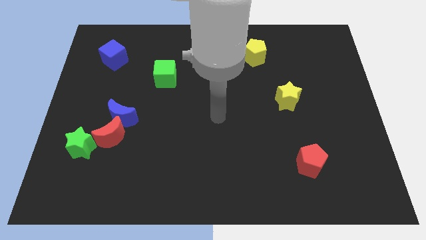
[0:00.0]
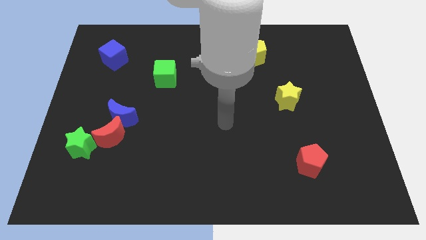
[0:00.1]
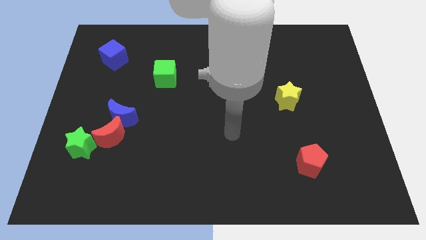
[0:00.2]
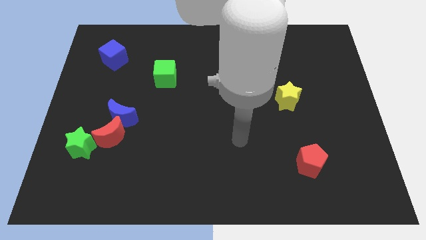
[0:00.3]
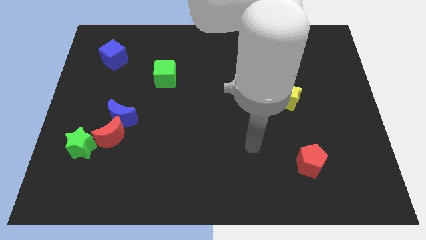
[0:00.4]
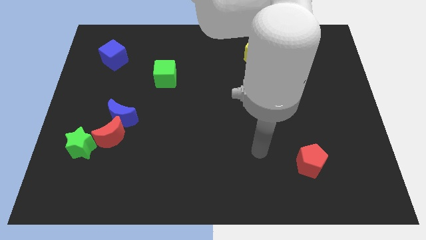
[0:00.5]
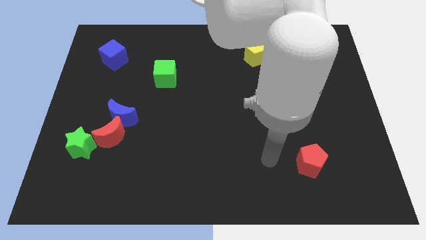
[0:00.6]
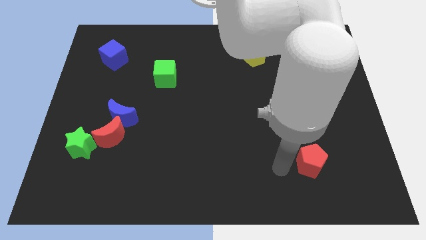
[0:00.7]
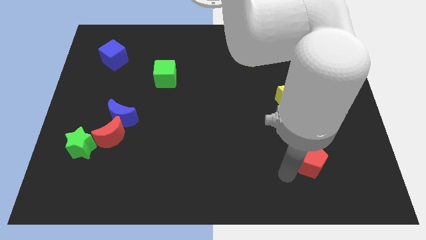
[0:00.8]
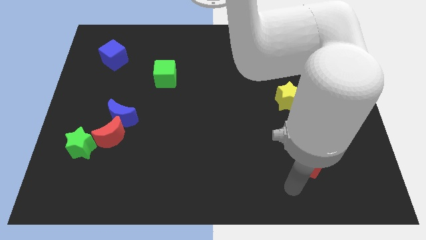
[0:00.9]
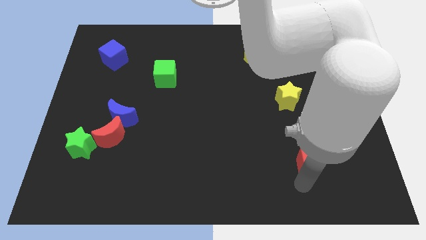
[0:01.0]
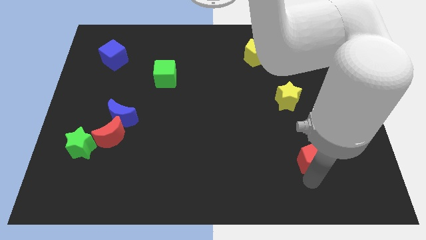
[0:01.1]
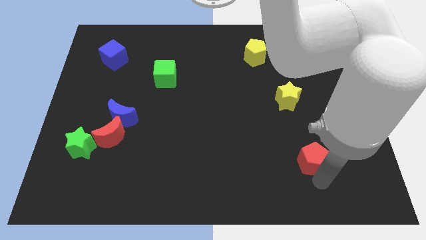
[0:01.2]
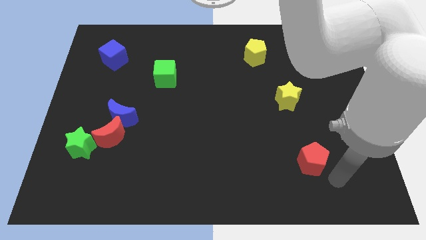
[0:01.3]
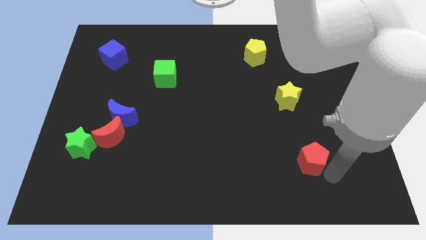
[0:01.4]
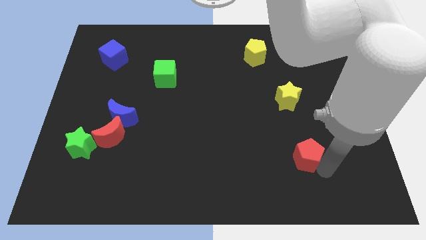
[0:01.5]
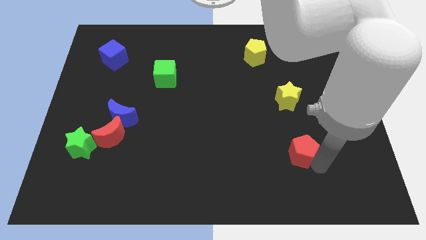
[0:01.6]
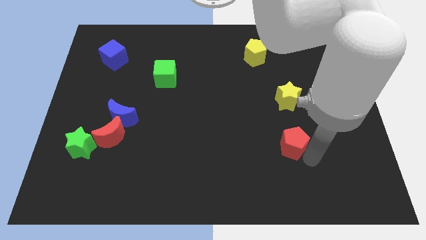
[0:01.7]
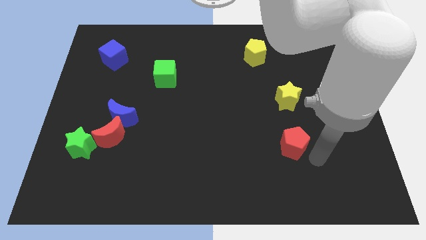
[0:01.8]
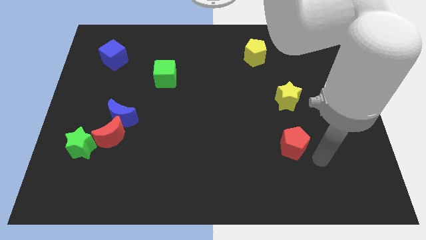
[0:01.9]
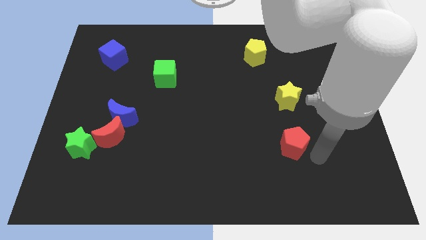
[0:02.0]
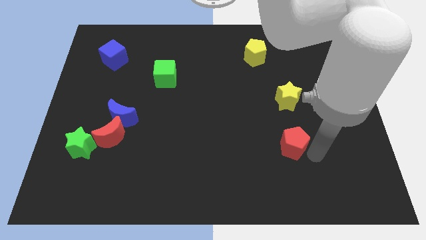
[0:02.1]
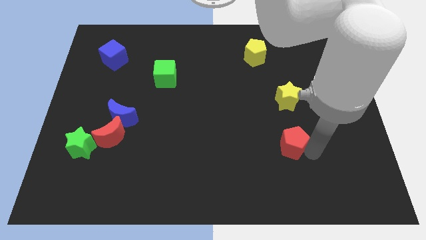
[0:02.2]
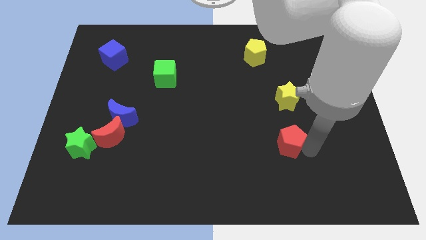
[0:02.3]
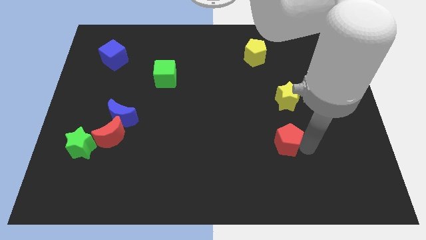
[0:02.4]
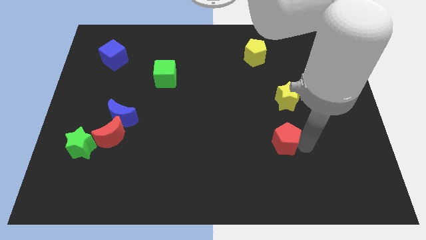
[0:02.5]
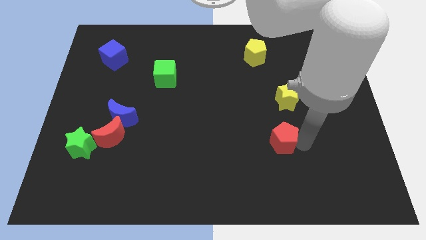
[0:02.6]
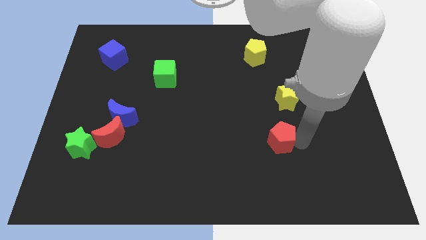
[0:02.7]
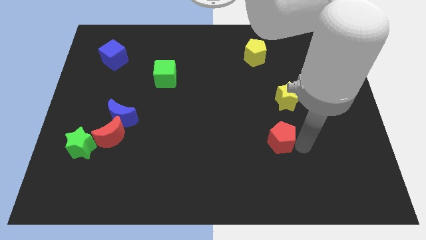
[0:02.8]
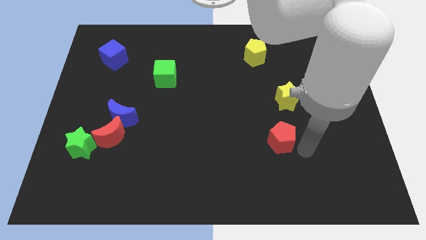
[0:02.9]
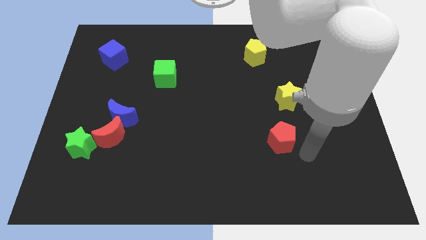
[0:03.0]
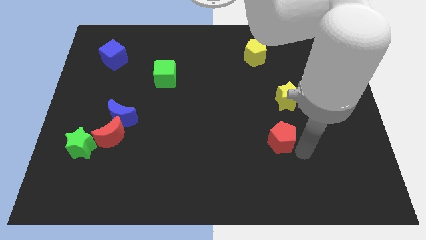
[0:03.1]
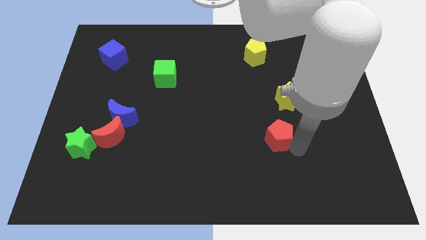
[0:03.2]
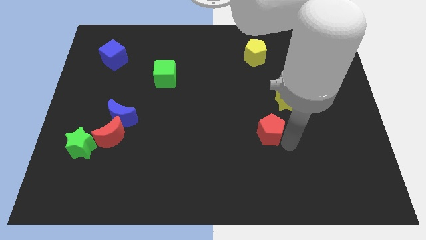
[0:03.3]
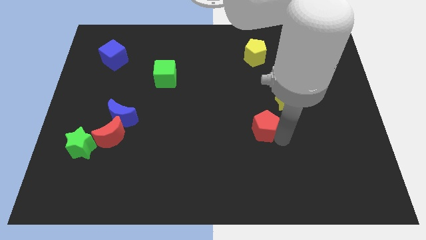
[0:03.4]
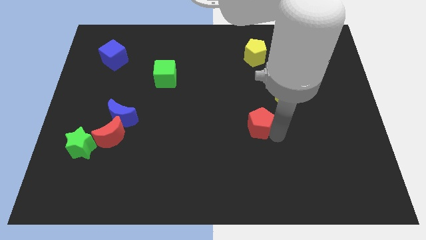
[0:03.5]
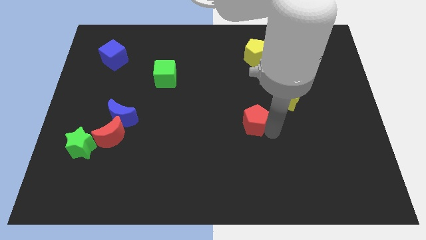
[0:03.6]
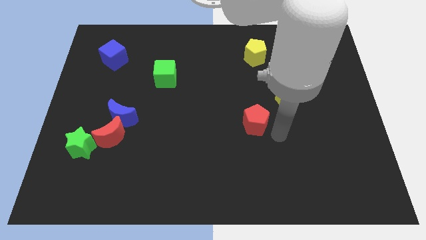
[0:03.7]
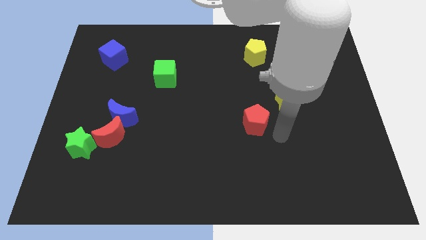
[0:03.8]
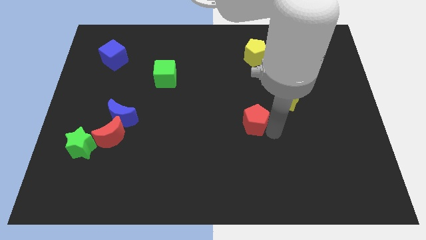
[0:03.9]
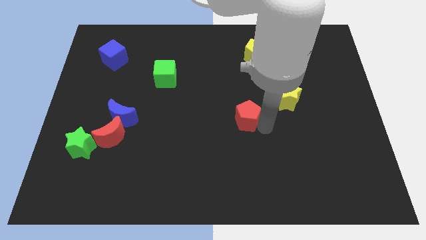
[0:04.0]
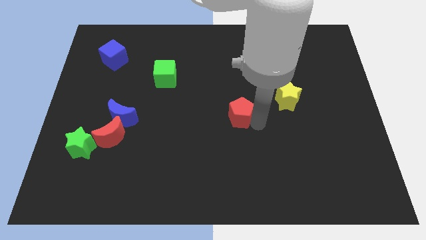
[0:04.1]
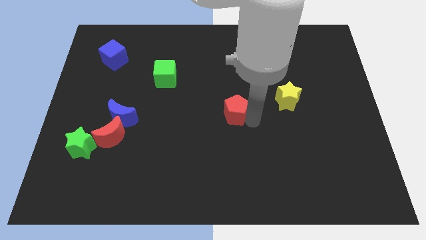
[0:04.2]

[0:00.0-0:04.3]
push the red pentagon up and then left

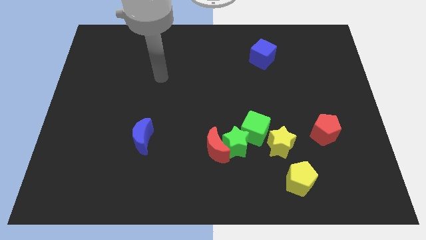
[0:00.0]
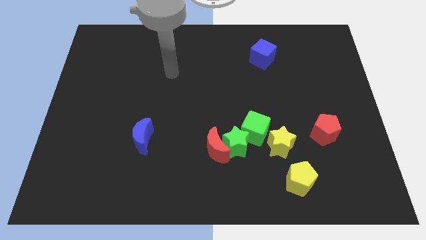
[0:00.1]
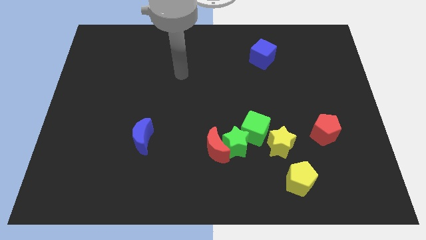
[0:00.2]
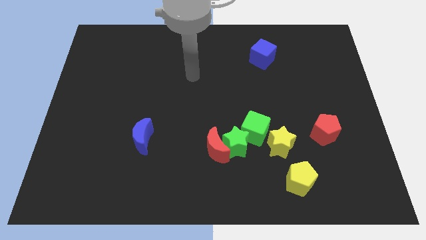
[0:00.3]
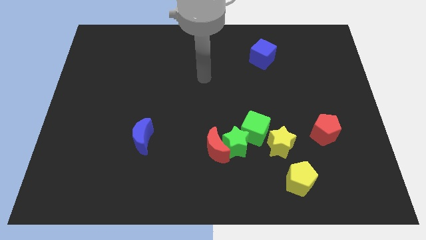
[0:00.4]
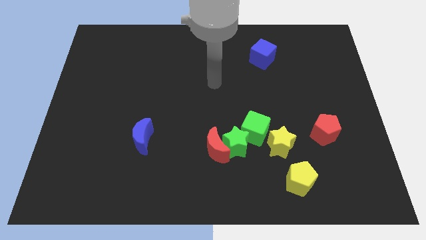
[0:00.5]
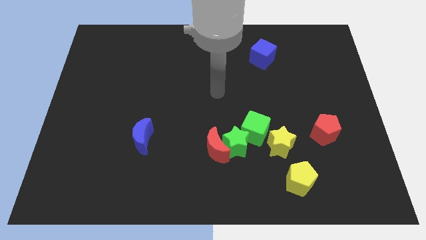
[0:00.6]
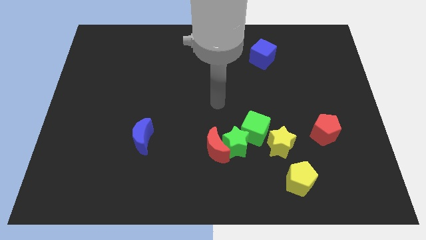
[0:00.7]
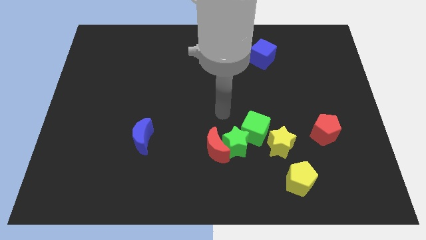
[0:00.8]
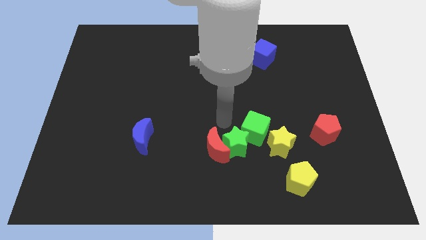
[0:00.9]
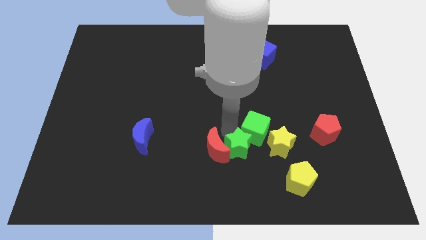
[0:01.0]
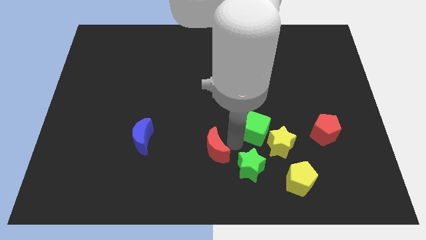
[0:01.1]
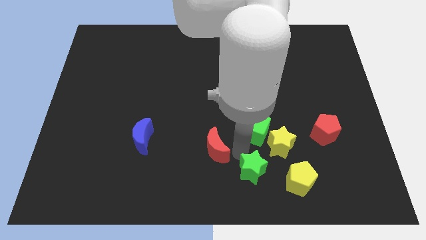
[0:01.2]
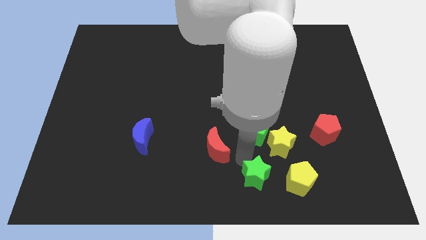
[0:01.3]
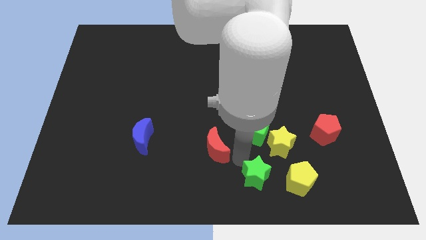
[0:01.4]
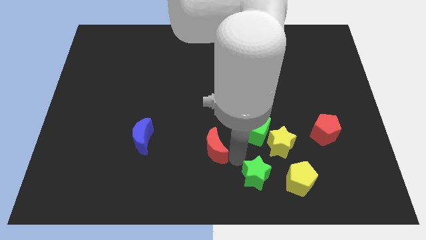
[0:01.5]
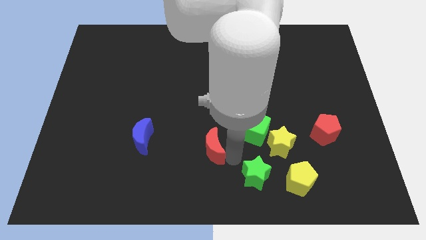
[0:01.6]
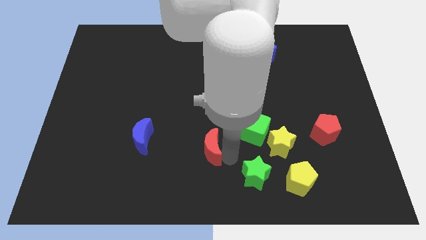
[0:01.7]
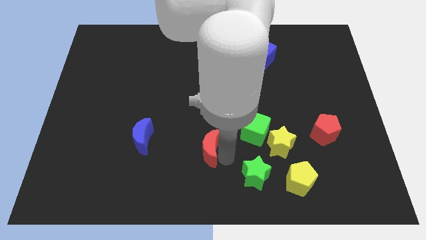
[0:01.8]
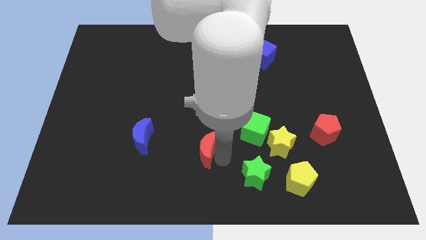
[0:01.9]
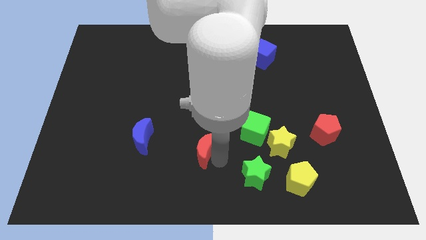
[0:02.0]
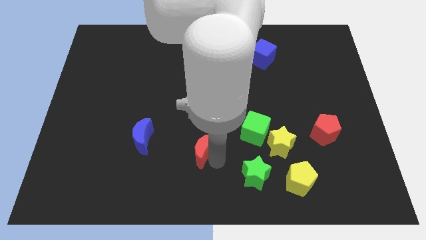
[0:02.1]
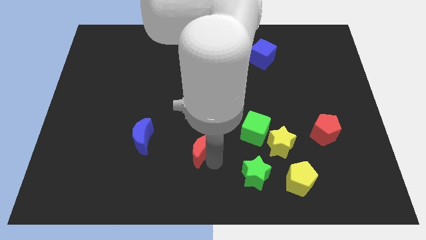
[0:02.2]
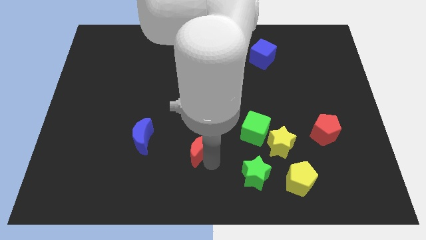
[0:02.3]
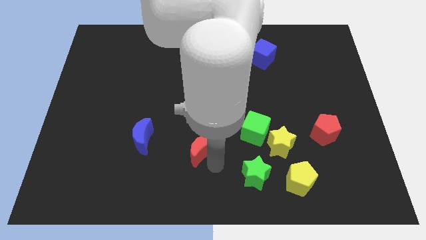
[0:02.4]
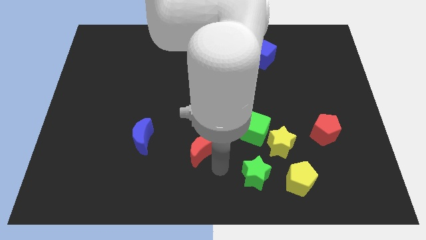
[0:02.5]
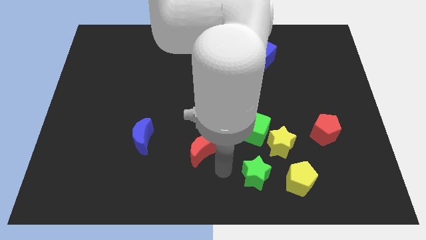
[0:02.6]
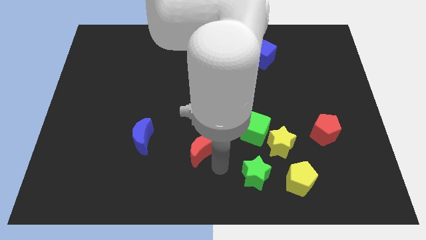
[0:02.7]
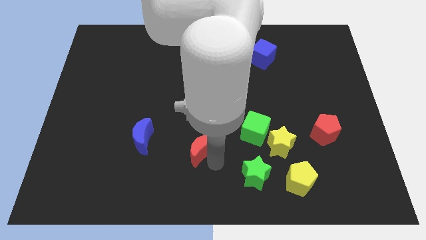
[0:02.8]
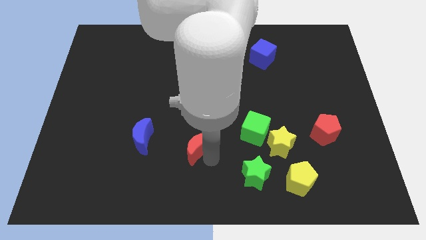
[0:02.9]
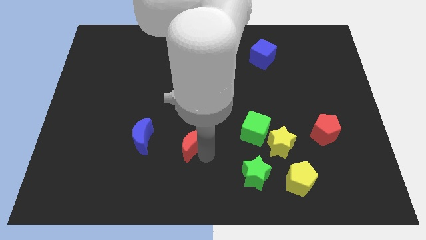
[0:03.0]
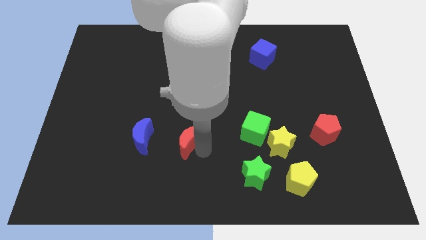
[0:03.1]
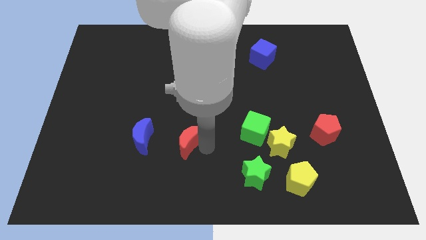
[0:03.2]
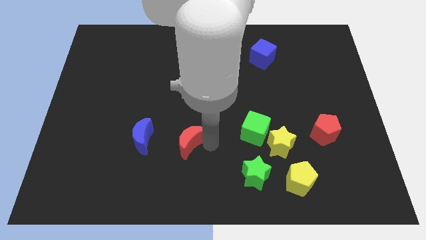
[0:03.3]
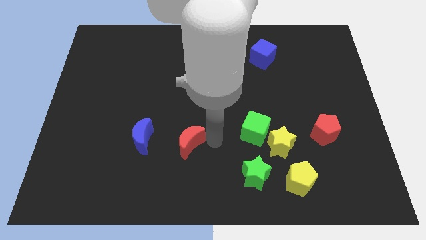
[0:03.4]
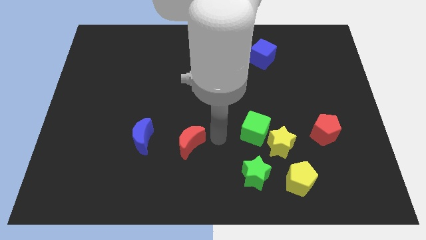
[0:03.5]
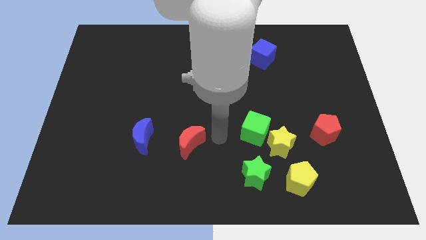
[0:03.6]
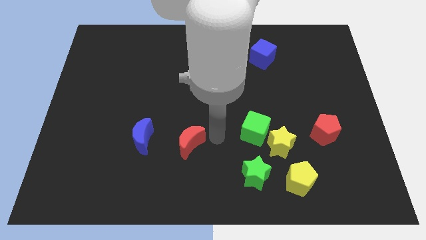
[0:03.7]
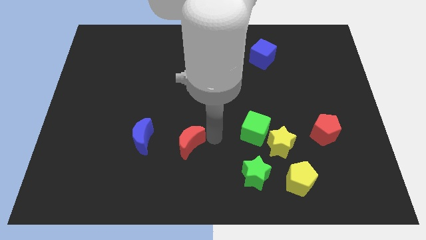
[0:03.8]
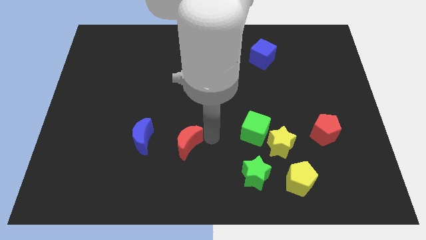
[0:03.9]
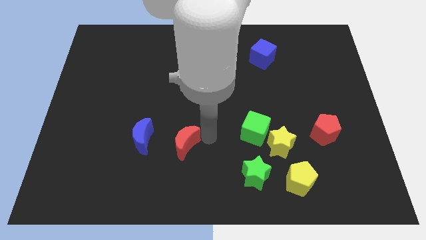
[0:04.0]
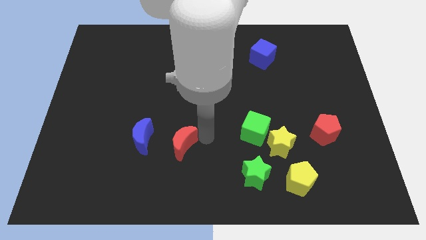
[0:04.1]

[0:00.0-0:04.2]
slightly slide the red moon to the left
